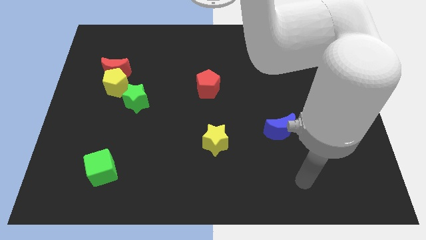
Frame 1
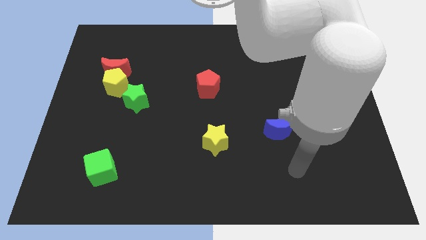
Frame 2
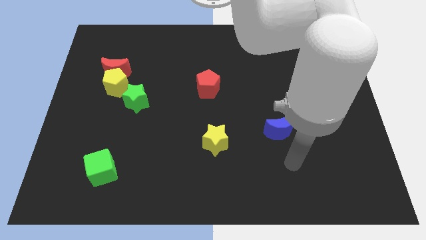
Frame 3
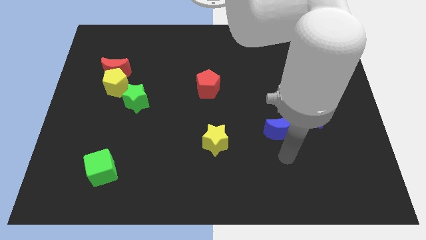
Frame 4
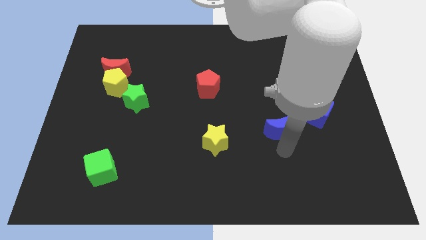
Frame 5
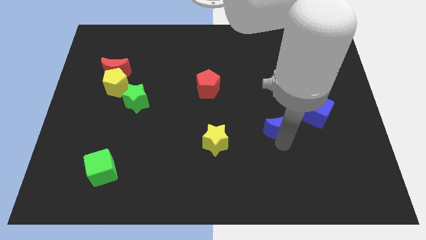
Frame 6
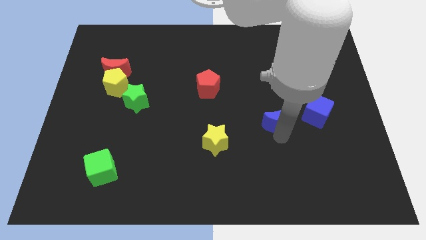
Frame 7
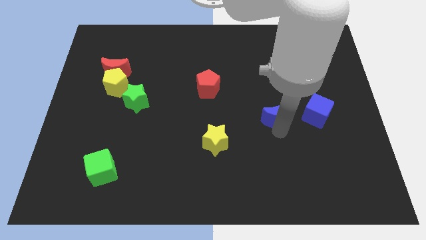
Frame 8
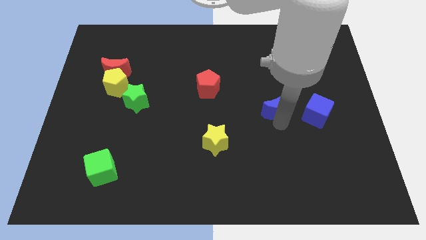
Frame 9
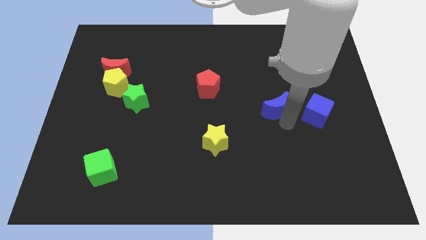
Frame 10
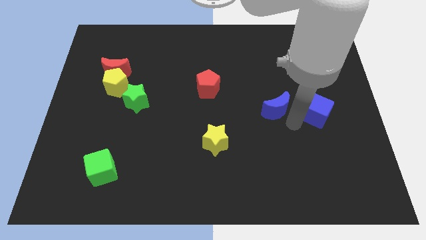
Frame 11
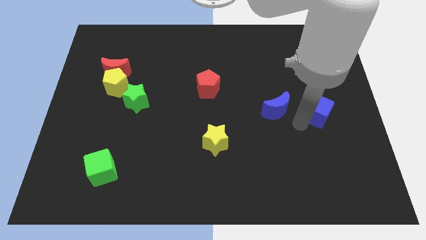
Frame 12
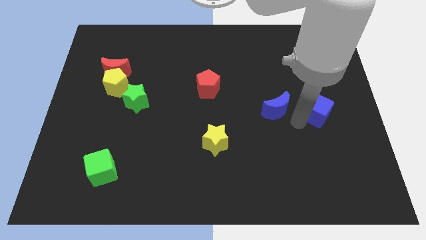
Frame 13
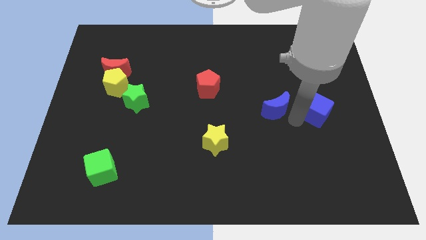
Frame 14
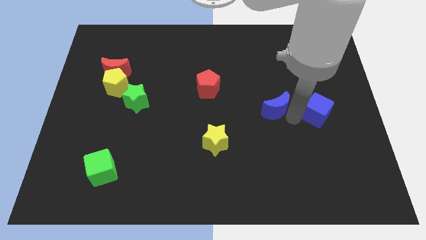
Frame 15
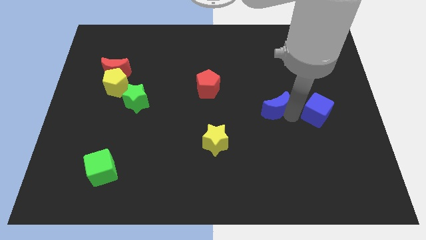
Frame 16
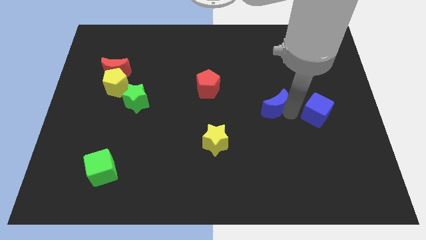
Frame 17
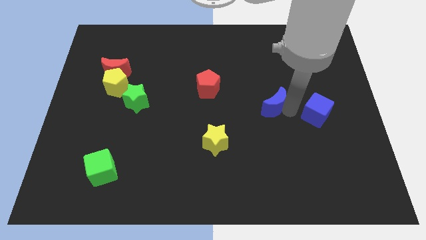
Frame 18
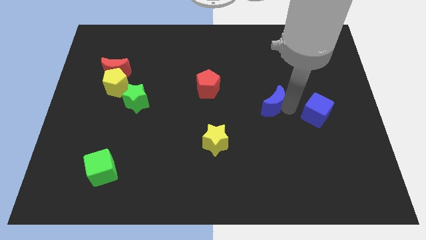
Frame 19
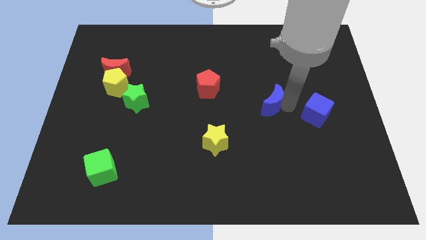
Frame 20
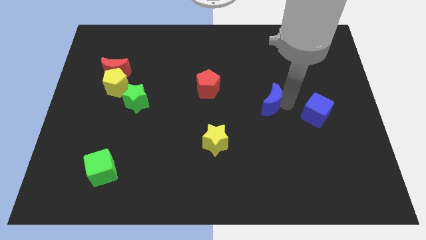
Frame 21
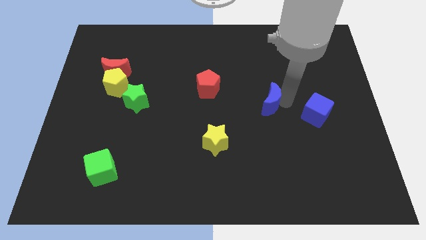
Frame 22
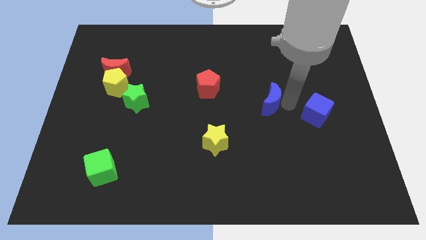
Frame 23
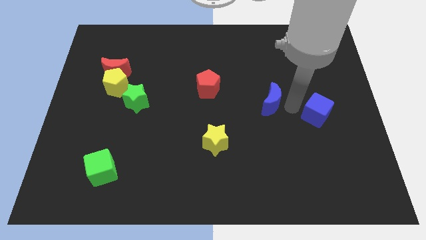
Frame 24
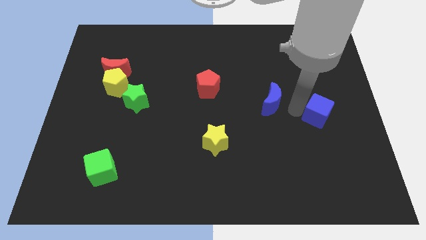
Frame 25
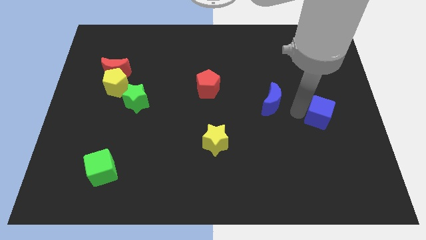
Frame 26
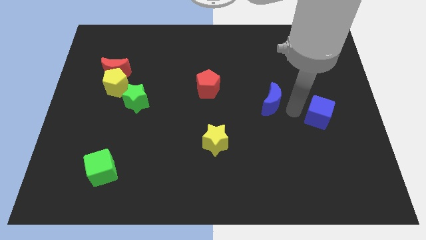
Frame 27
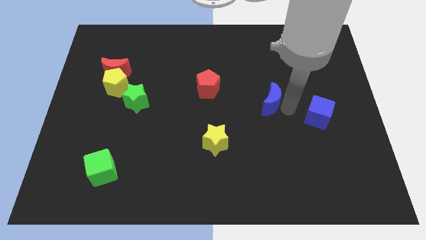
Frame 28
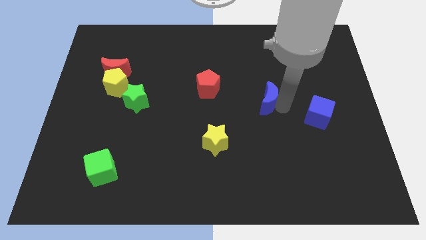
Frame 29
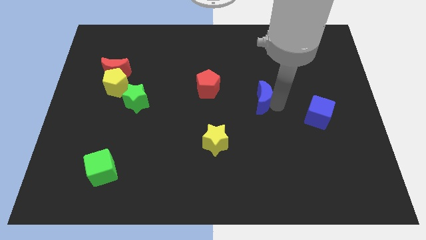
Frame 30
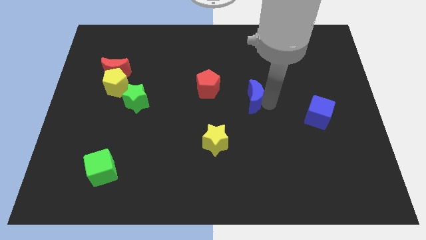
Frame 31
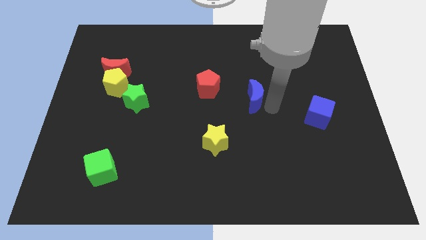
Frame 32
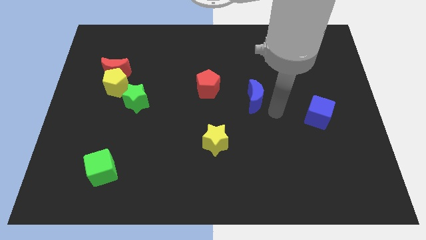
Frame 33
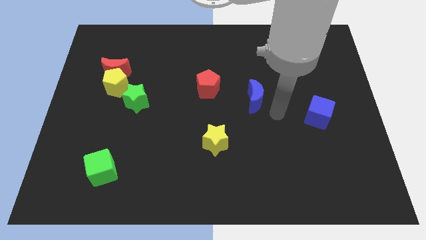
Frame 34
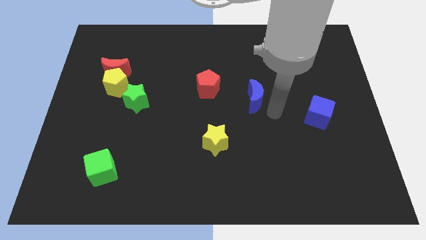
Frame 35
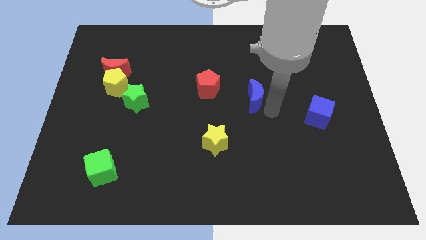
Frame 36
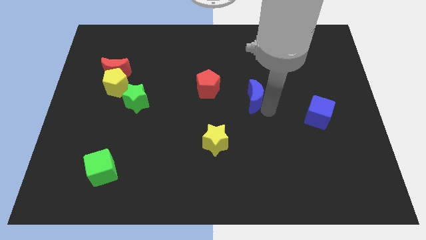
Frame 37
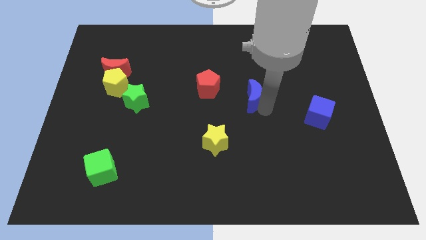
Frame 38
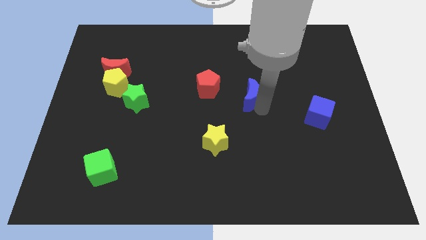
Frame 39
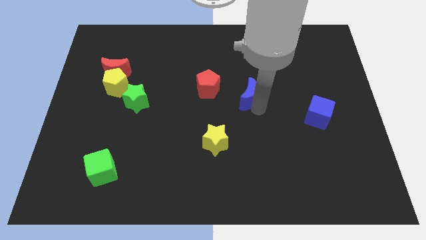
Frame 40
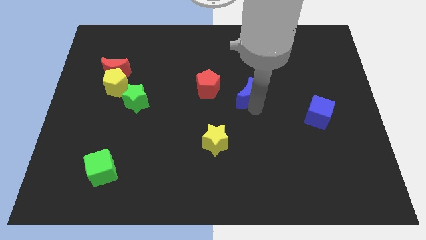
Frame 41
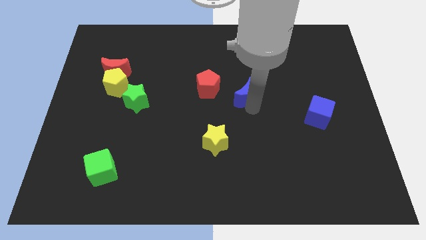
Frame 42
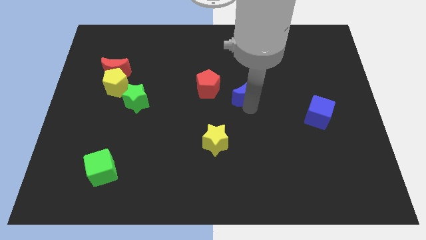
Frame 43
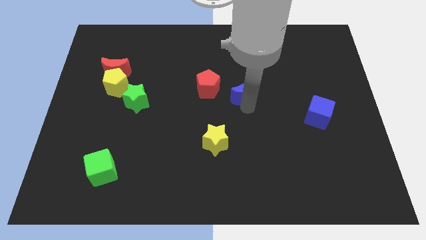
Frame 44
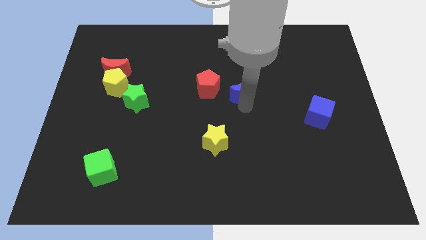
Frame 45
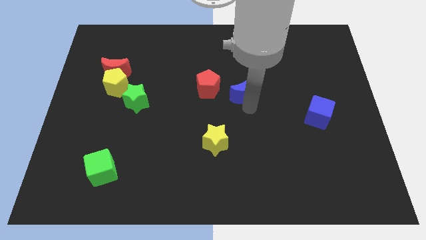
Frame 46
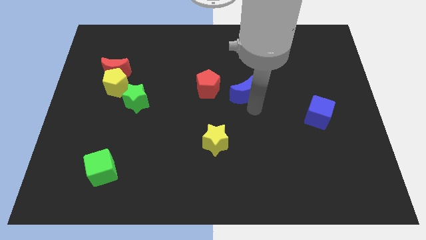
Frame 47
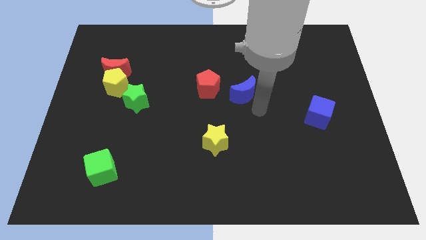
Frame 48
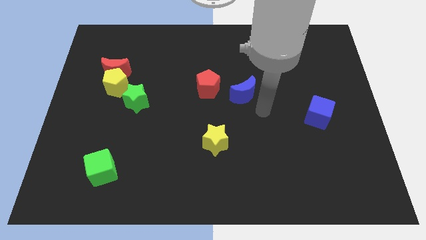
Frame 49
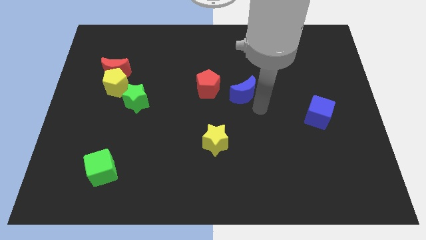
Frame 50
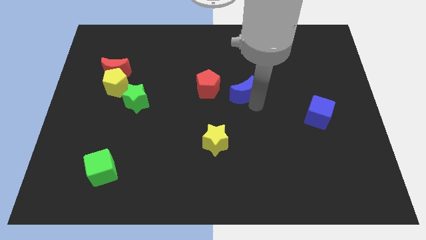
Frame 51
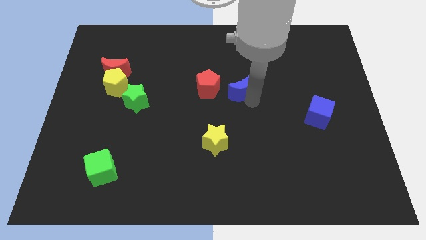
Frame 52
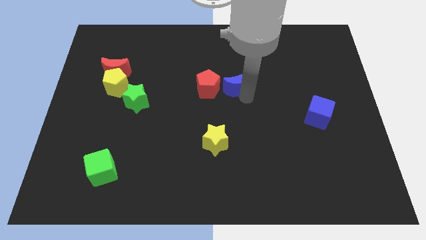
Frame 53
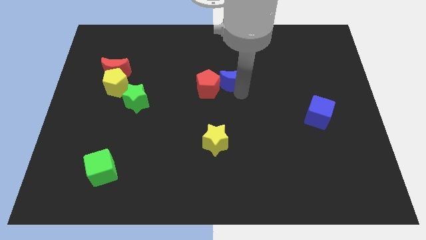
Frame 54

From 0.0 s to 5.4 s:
push the blue moon to the top right of the red pentagon

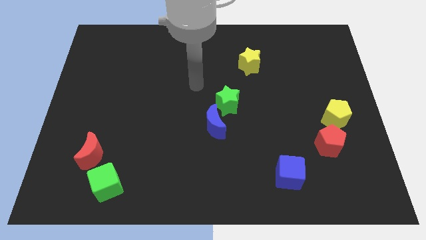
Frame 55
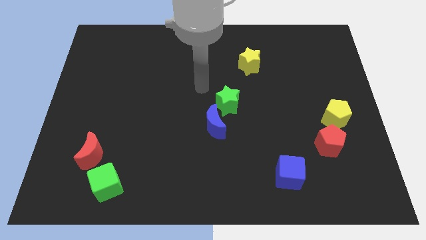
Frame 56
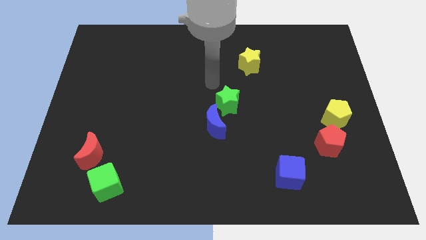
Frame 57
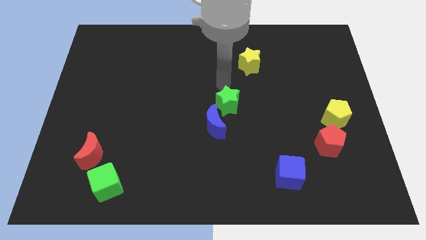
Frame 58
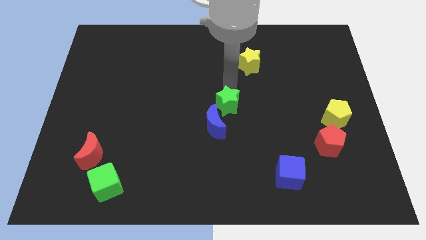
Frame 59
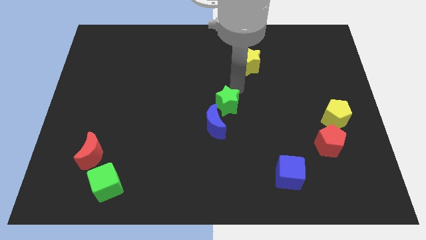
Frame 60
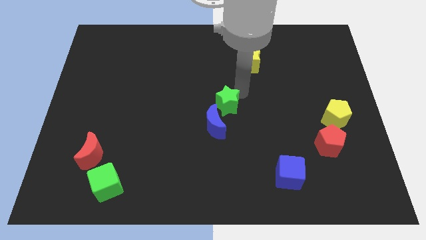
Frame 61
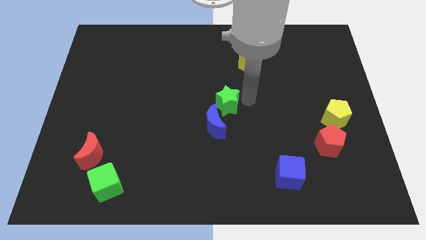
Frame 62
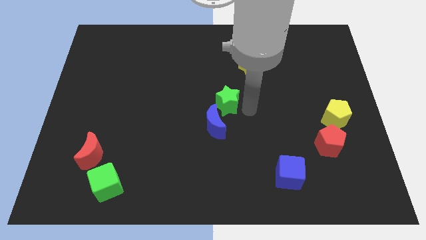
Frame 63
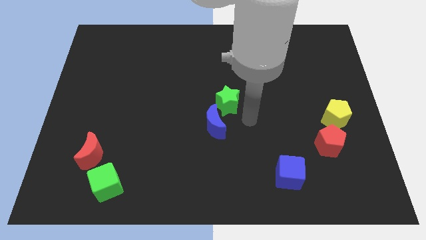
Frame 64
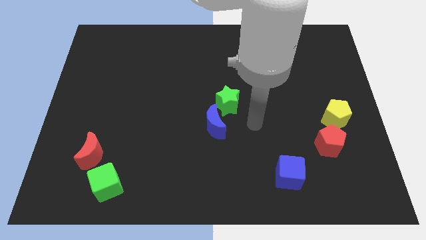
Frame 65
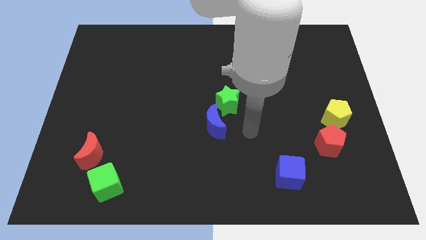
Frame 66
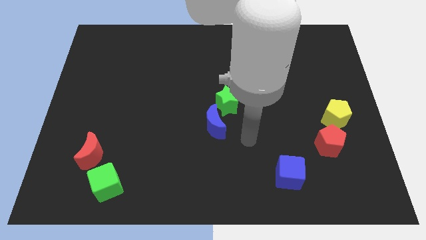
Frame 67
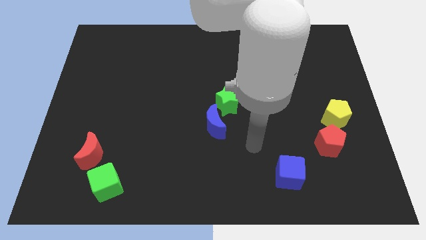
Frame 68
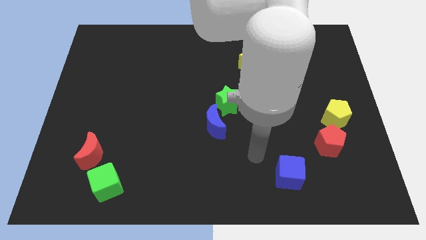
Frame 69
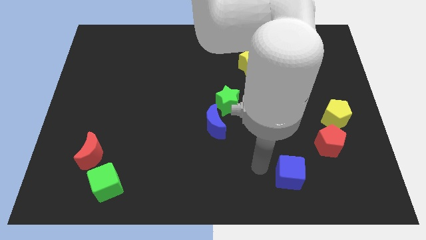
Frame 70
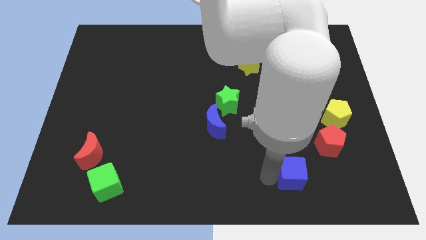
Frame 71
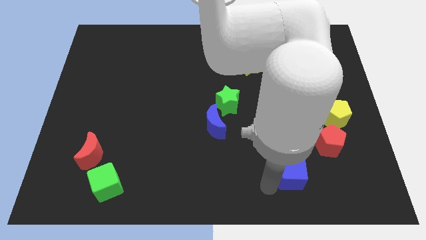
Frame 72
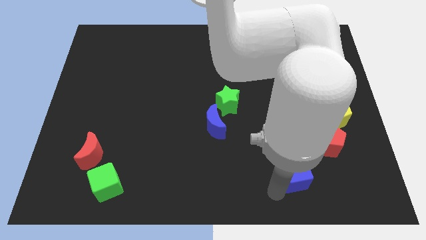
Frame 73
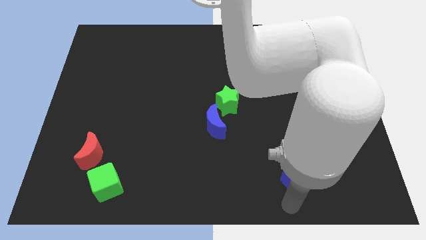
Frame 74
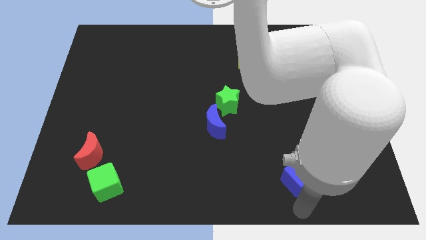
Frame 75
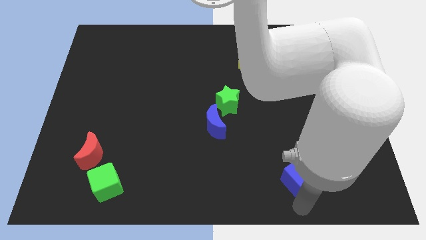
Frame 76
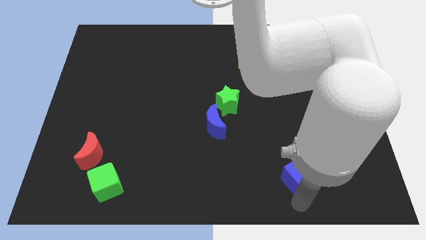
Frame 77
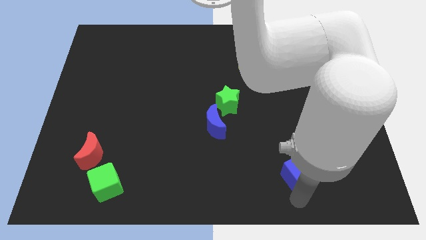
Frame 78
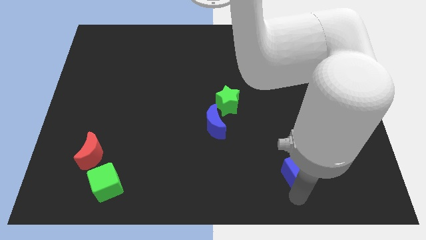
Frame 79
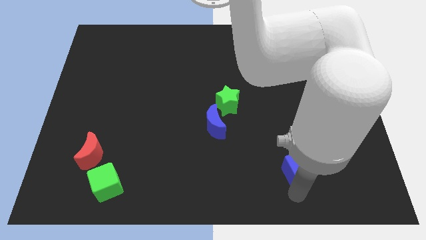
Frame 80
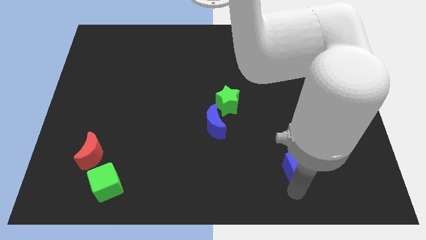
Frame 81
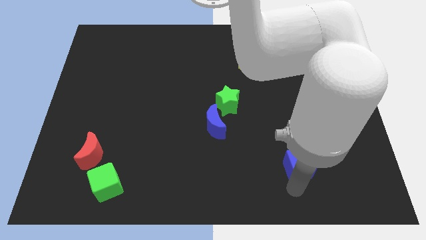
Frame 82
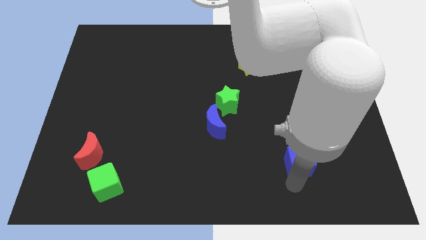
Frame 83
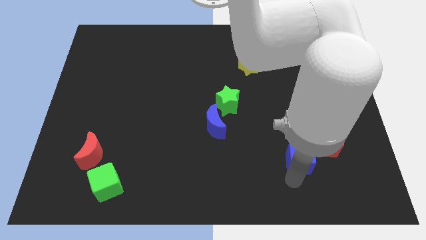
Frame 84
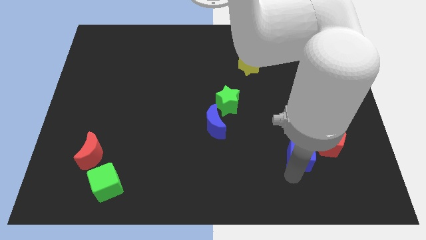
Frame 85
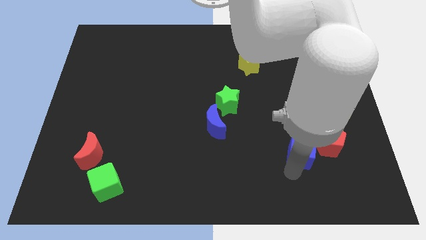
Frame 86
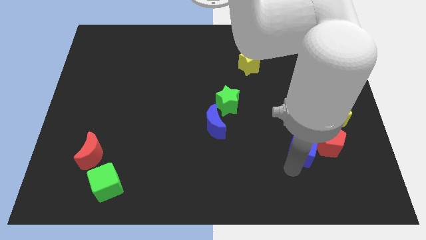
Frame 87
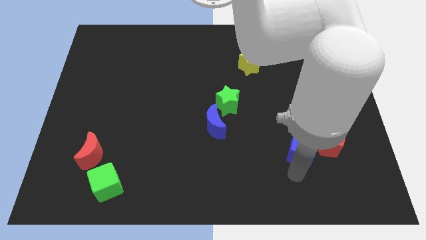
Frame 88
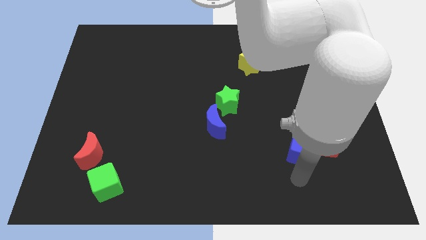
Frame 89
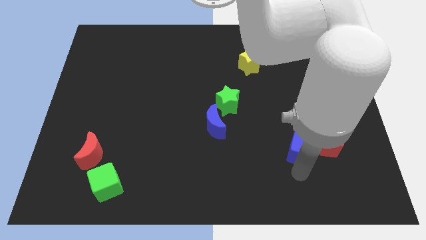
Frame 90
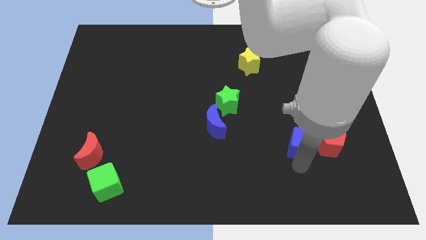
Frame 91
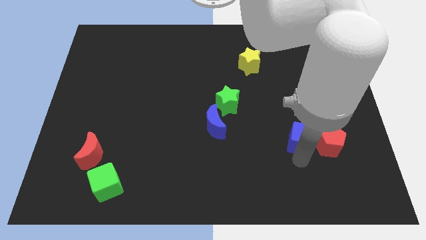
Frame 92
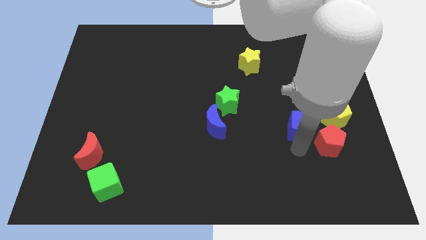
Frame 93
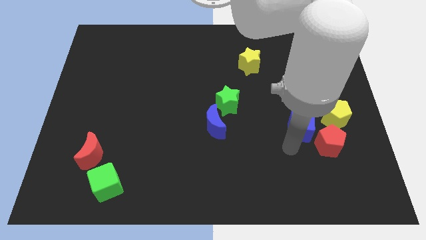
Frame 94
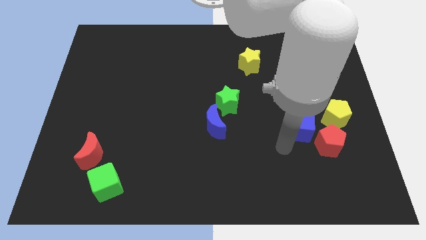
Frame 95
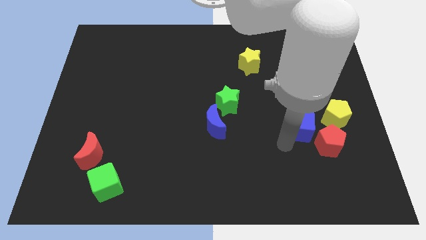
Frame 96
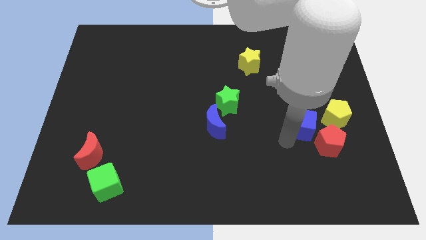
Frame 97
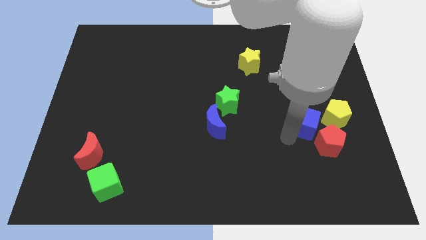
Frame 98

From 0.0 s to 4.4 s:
slide the blue cube to the top side of the red pentagon
